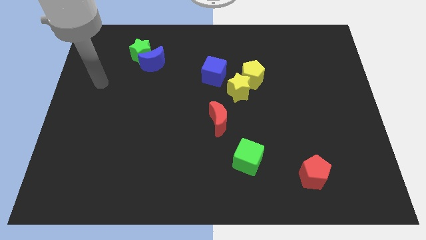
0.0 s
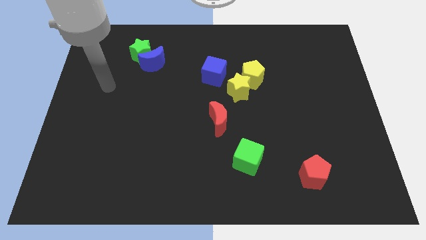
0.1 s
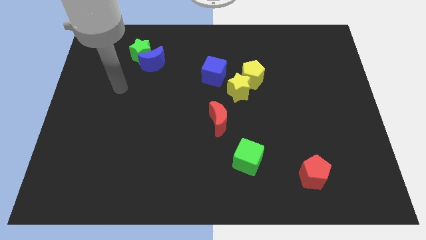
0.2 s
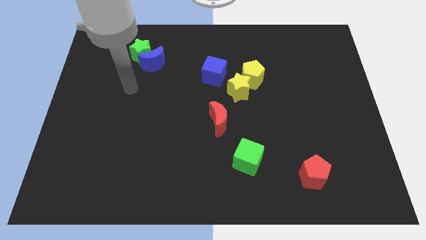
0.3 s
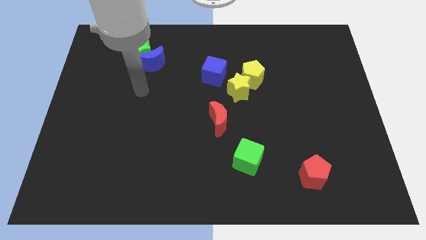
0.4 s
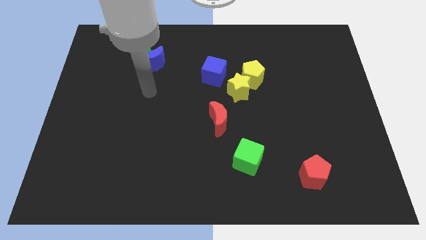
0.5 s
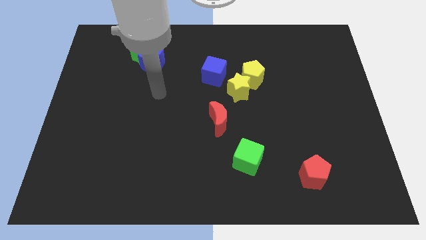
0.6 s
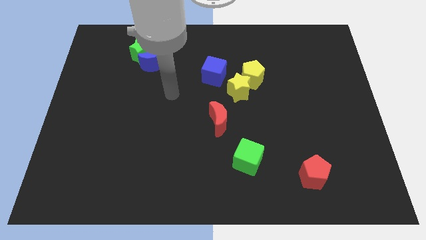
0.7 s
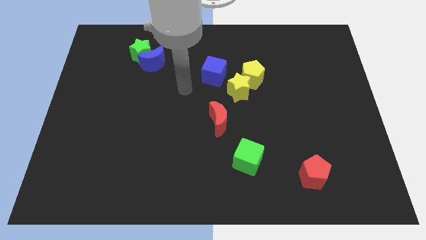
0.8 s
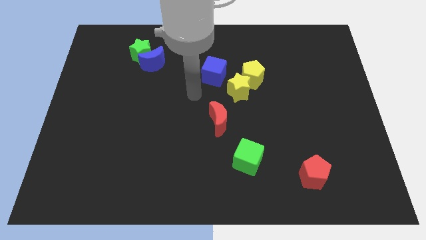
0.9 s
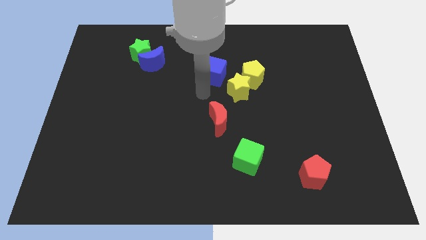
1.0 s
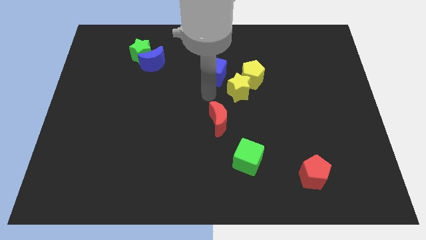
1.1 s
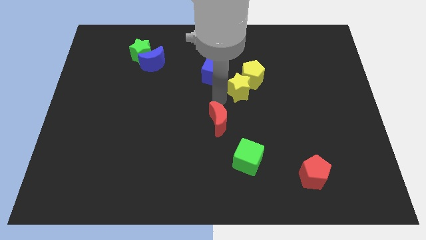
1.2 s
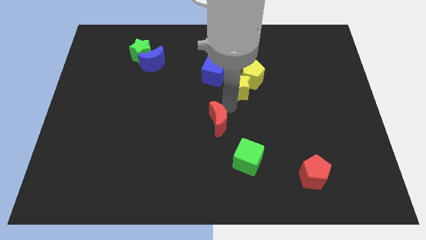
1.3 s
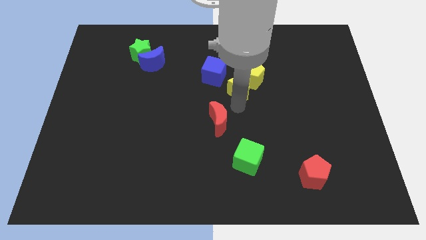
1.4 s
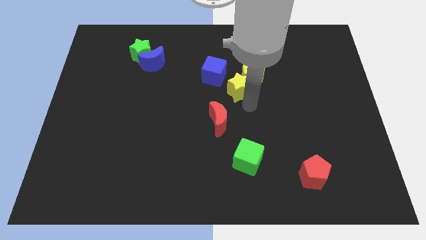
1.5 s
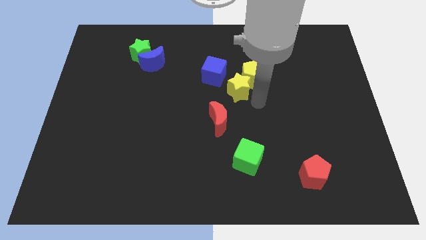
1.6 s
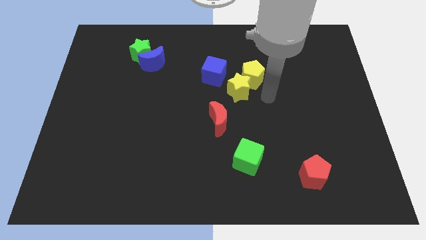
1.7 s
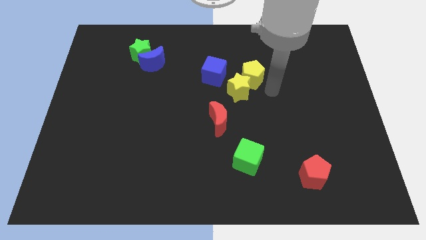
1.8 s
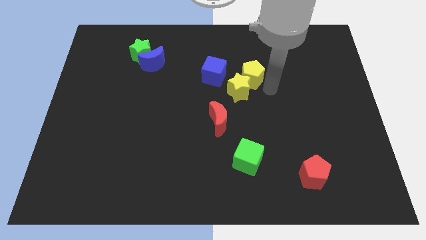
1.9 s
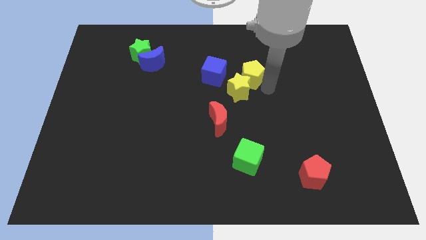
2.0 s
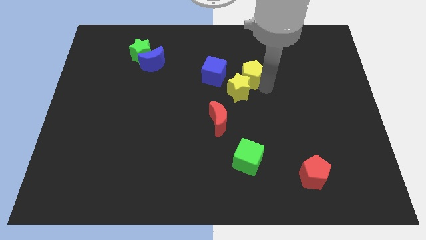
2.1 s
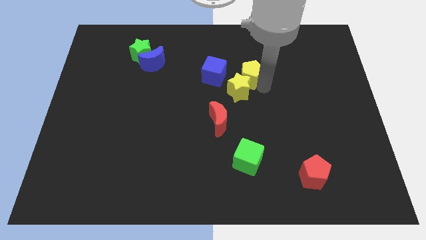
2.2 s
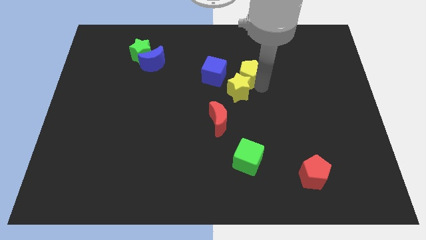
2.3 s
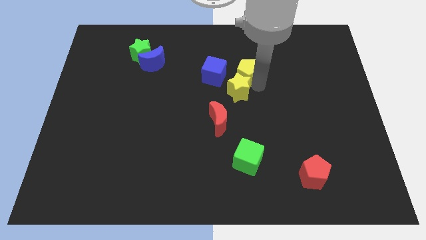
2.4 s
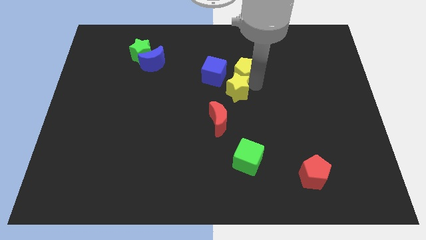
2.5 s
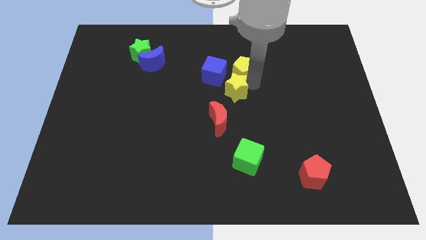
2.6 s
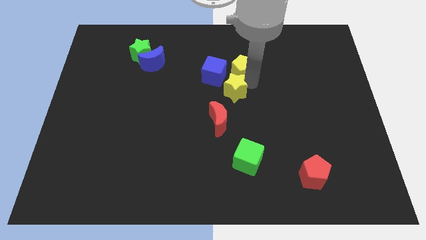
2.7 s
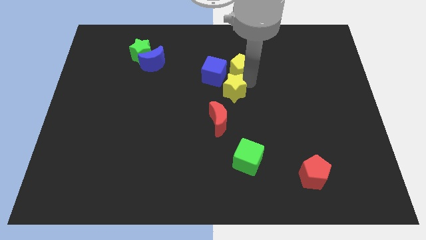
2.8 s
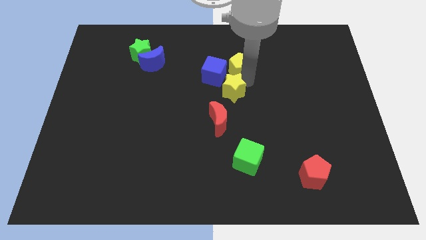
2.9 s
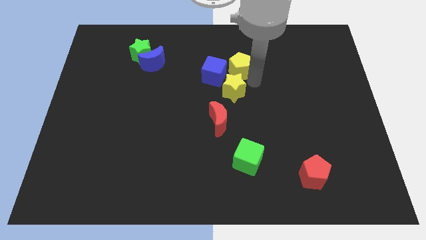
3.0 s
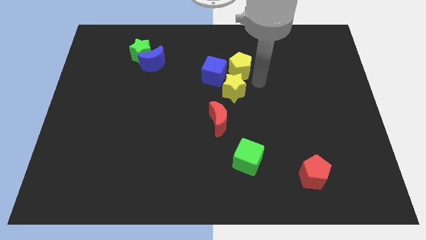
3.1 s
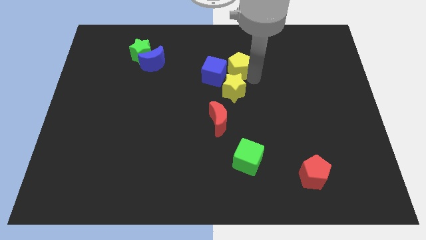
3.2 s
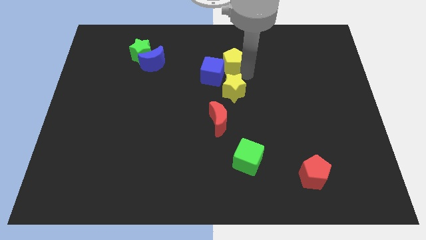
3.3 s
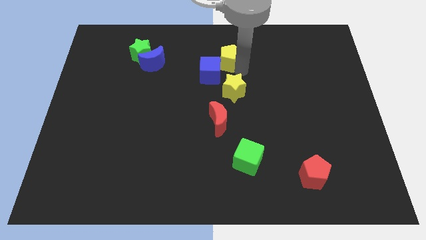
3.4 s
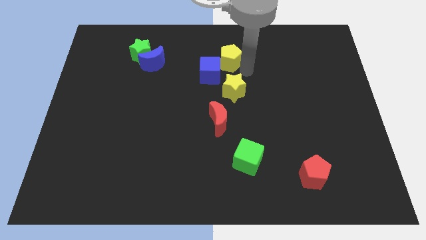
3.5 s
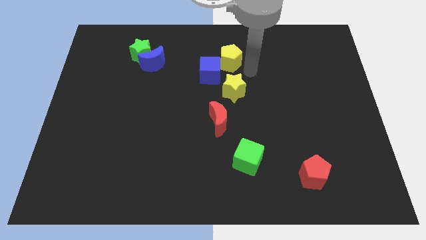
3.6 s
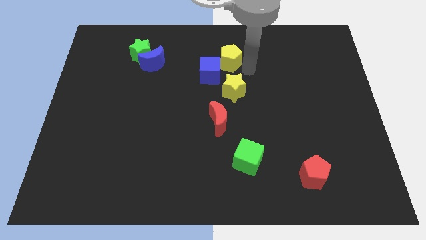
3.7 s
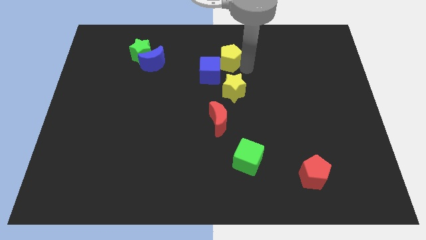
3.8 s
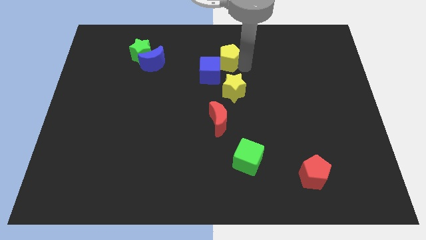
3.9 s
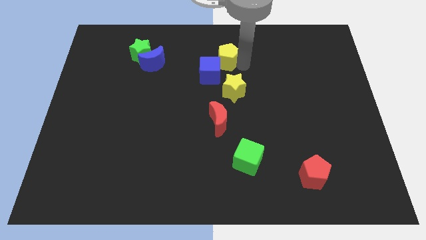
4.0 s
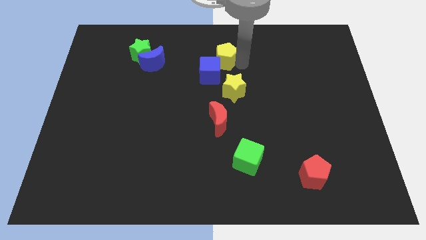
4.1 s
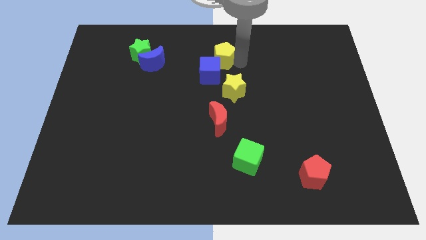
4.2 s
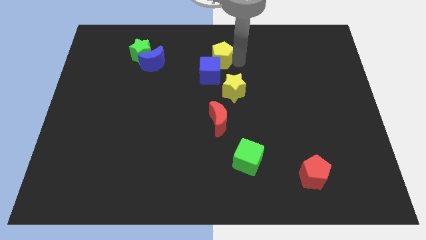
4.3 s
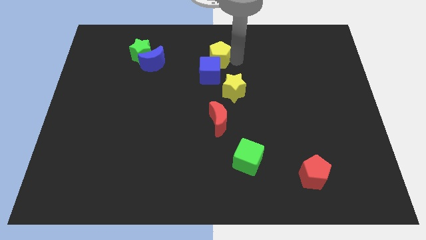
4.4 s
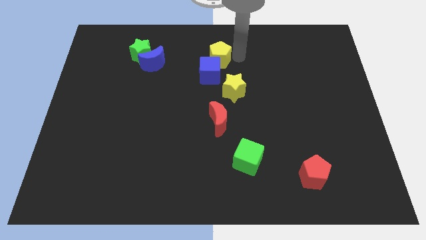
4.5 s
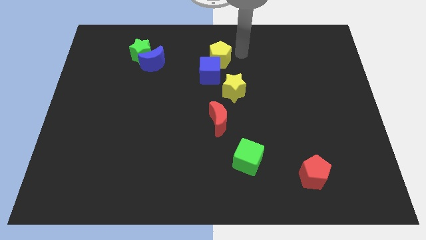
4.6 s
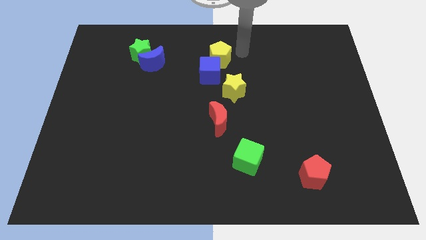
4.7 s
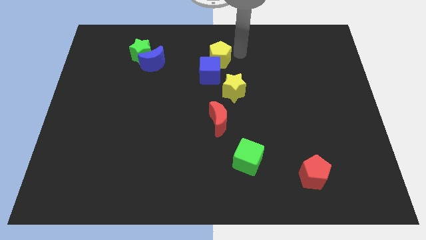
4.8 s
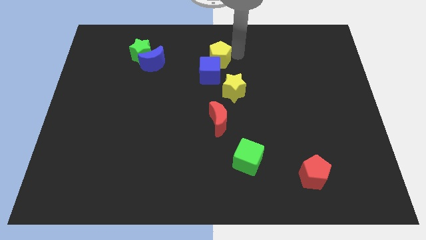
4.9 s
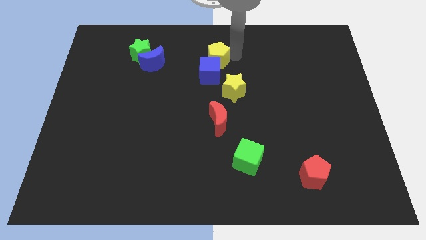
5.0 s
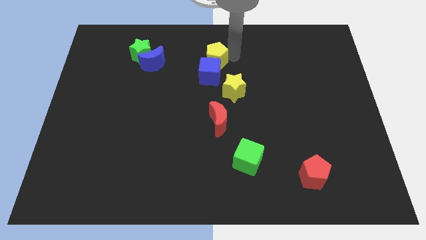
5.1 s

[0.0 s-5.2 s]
move the yellow pentagon a little bit to the left

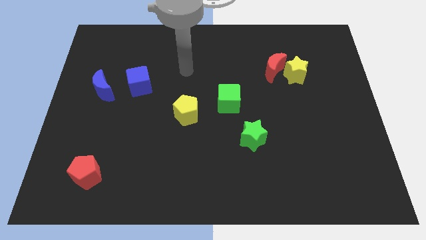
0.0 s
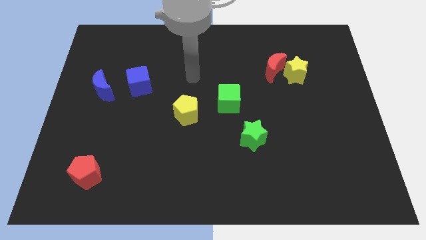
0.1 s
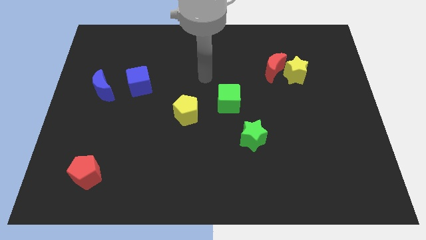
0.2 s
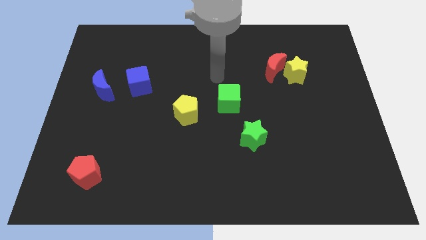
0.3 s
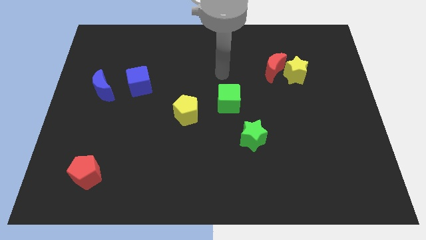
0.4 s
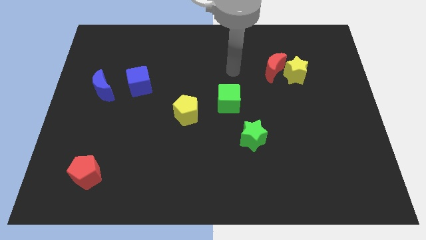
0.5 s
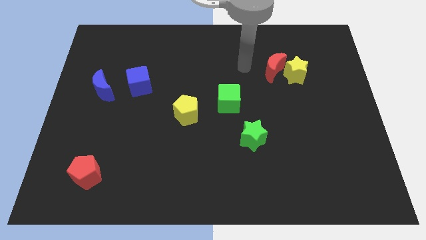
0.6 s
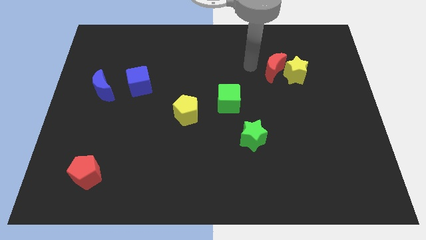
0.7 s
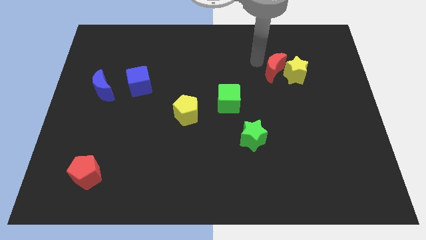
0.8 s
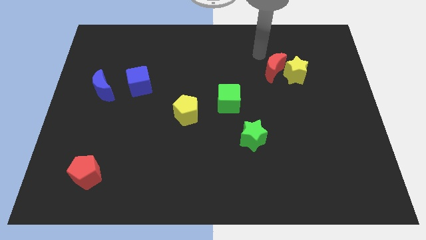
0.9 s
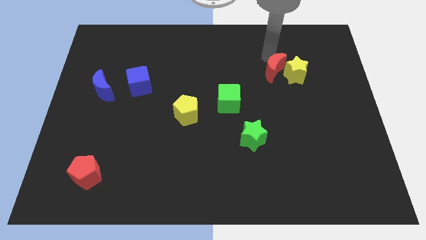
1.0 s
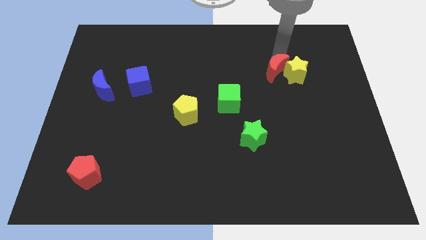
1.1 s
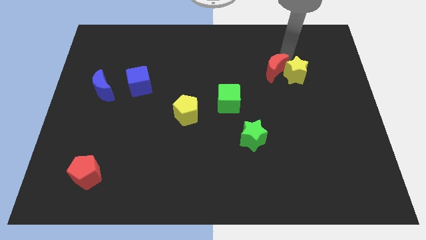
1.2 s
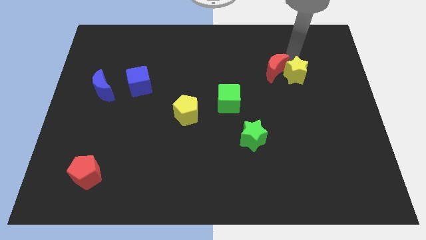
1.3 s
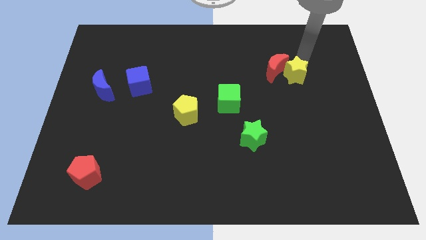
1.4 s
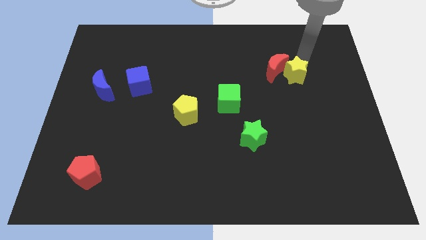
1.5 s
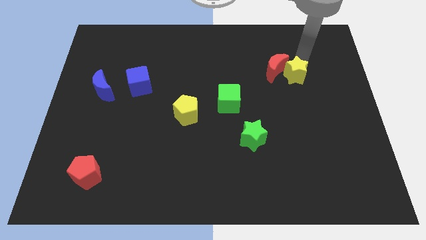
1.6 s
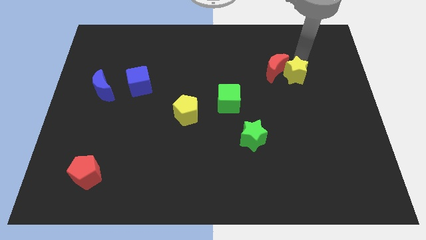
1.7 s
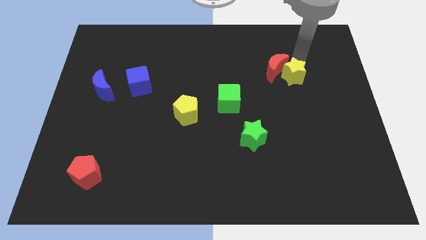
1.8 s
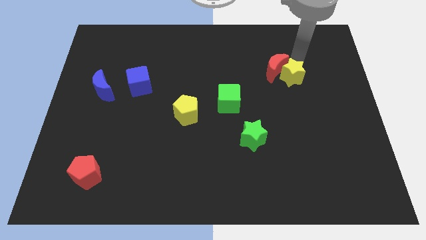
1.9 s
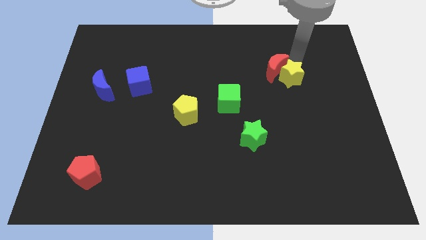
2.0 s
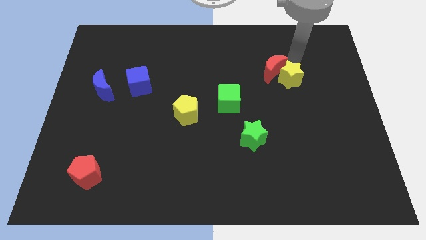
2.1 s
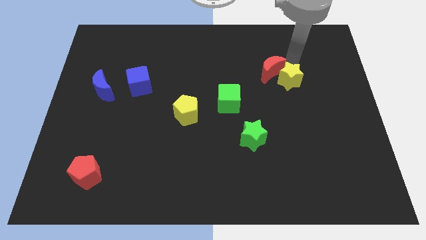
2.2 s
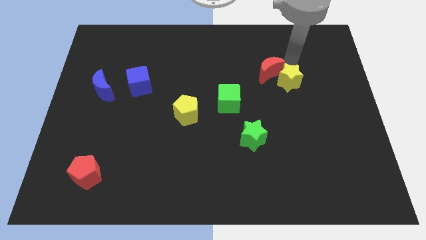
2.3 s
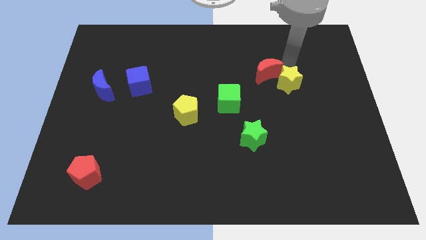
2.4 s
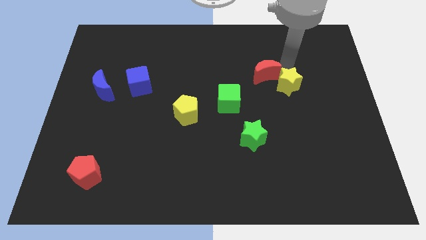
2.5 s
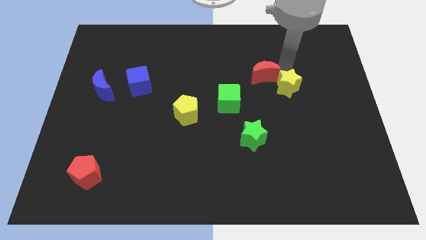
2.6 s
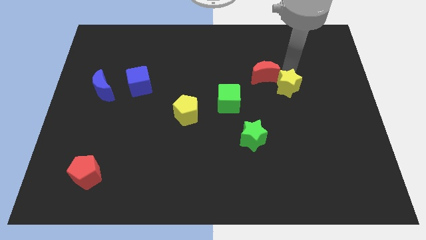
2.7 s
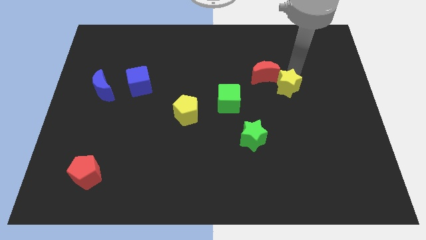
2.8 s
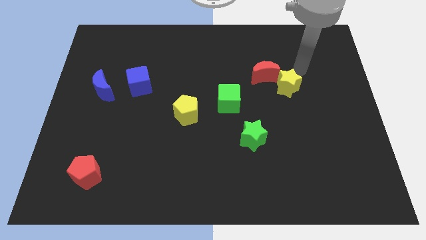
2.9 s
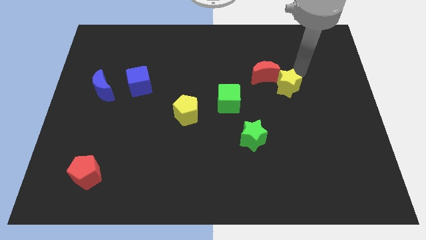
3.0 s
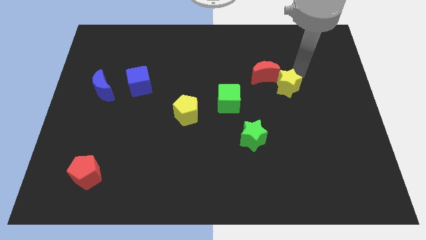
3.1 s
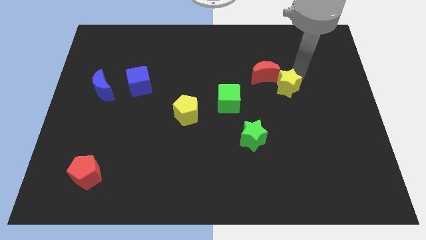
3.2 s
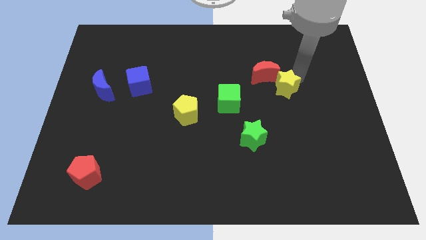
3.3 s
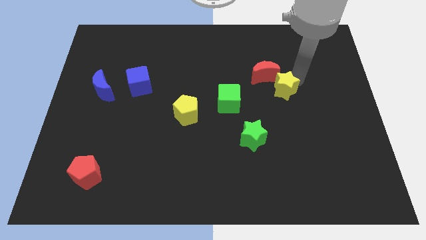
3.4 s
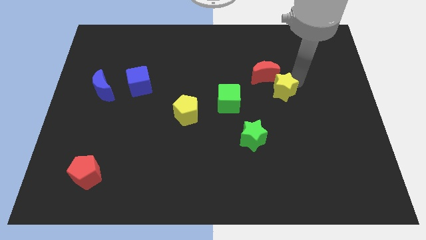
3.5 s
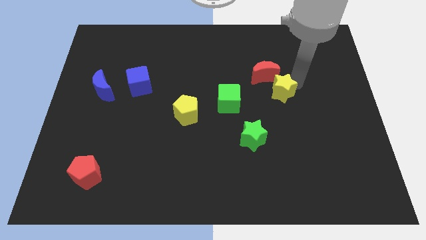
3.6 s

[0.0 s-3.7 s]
slide the yellow star somewhat down and left diagonally
